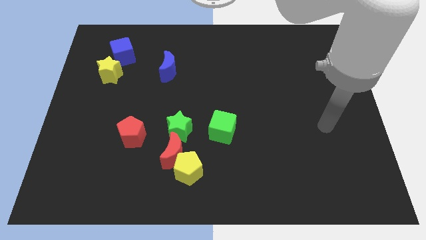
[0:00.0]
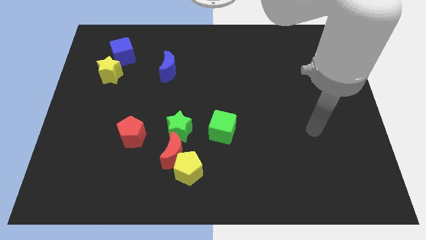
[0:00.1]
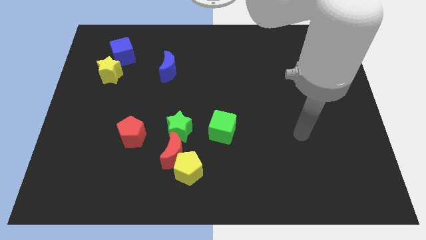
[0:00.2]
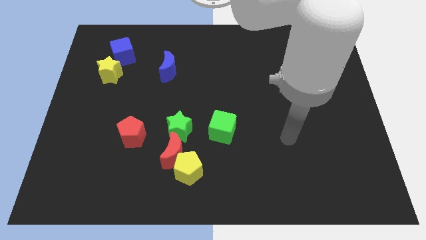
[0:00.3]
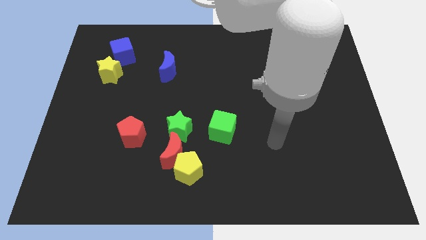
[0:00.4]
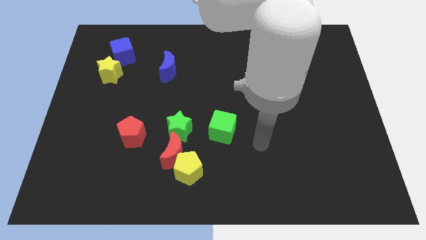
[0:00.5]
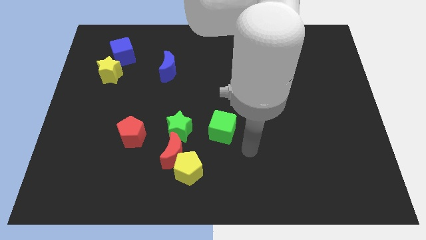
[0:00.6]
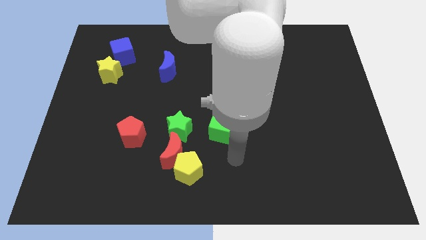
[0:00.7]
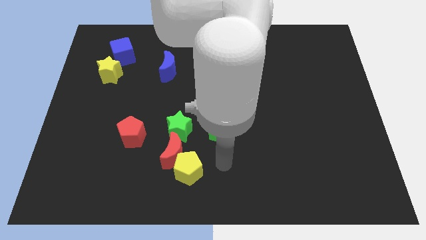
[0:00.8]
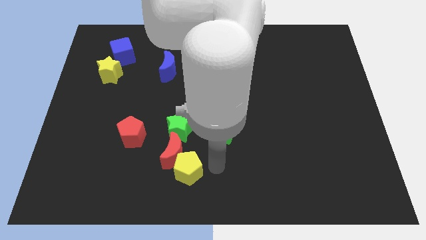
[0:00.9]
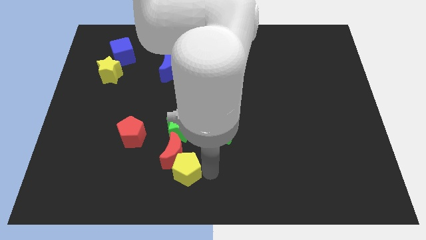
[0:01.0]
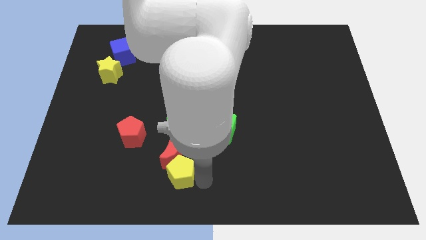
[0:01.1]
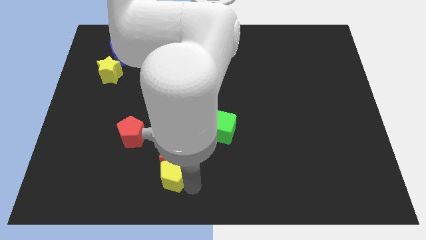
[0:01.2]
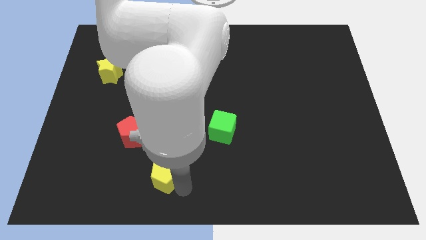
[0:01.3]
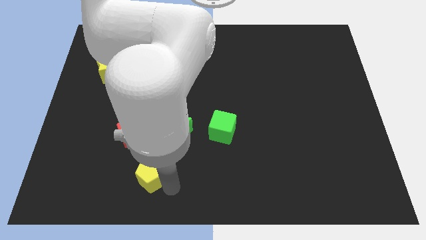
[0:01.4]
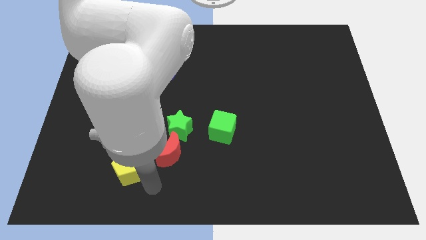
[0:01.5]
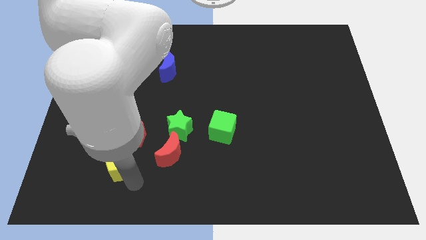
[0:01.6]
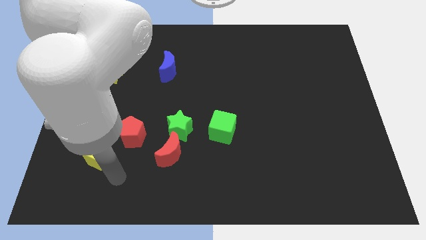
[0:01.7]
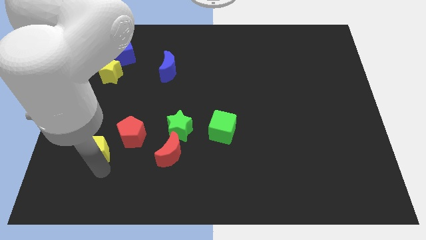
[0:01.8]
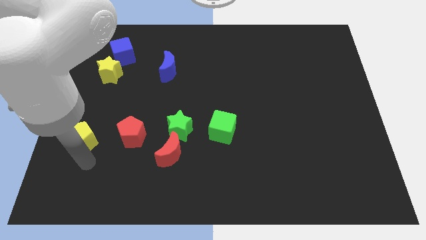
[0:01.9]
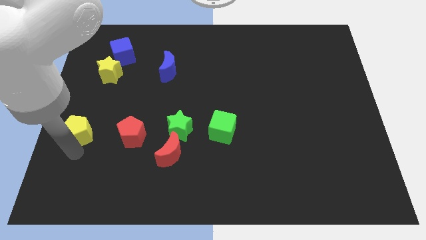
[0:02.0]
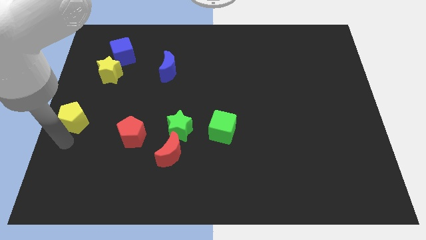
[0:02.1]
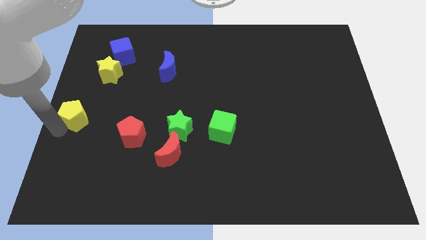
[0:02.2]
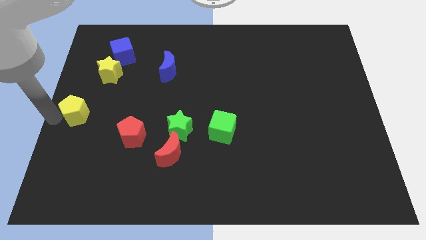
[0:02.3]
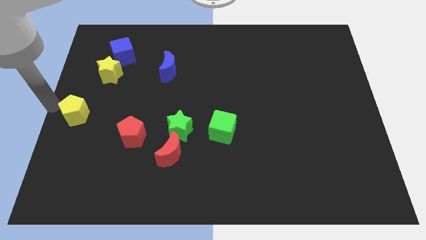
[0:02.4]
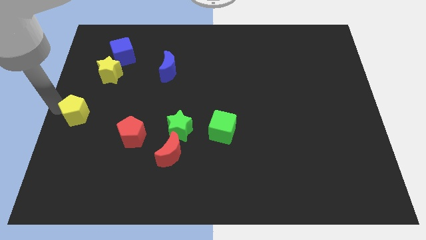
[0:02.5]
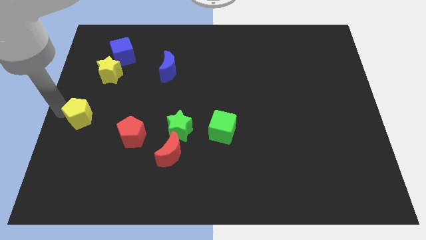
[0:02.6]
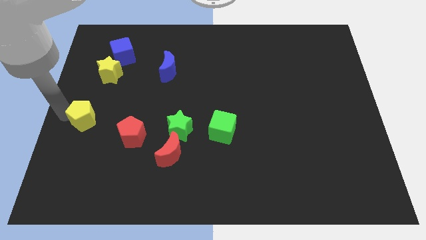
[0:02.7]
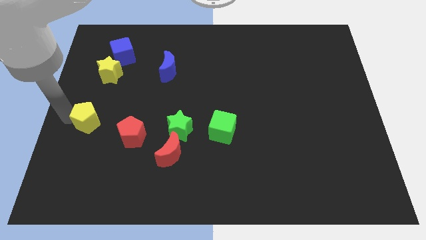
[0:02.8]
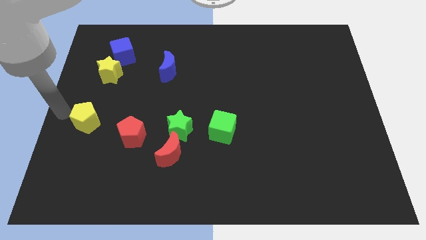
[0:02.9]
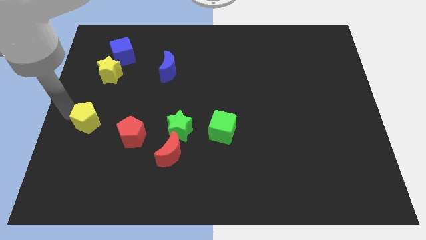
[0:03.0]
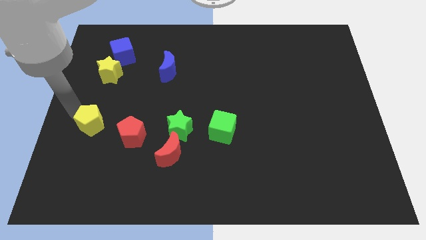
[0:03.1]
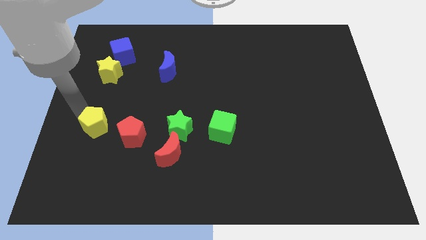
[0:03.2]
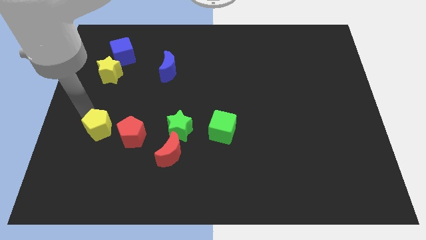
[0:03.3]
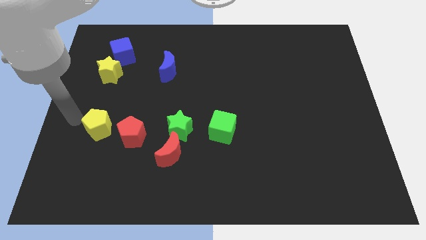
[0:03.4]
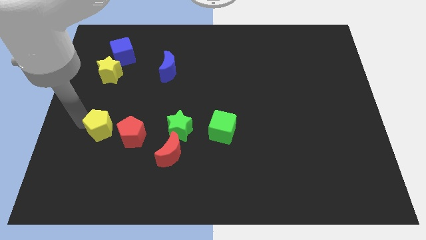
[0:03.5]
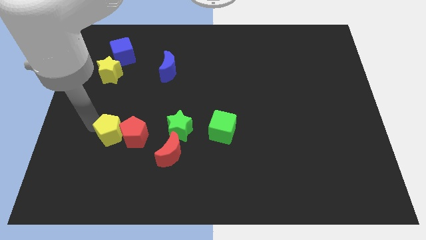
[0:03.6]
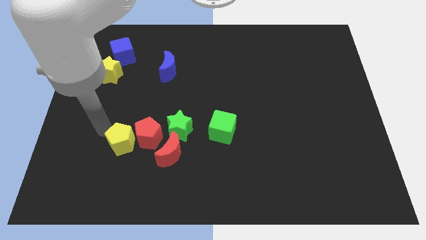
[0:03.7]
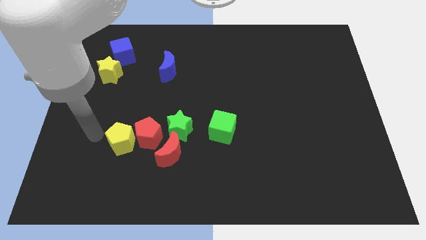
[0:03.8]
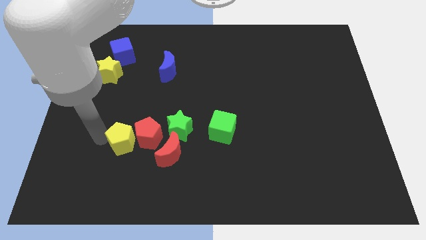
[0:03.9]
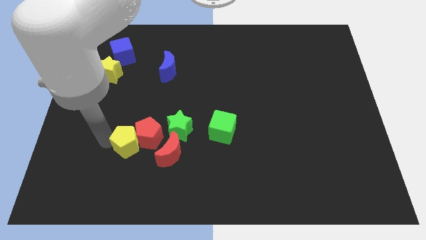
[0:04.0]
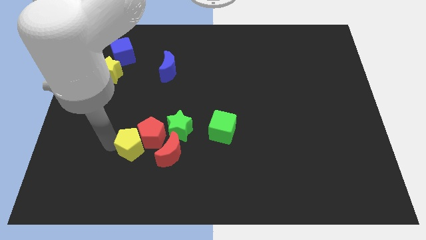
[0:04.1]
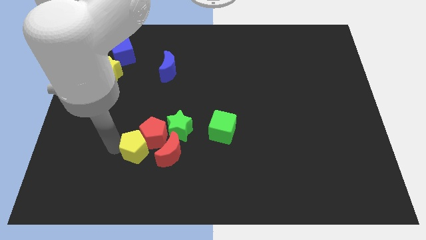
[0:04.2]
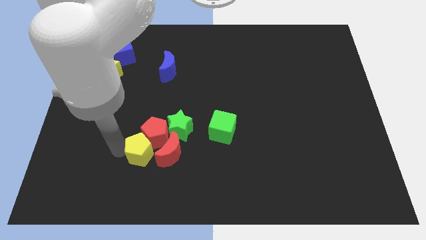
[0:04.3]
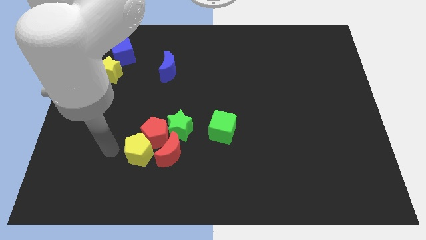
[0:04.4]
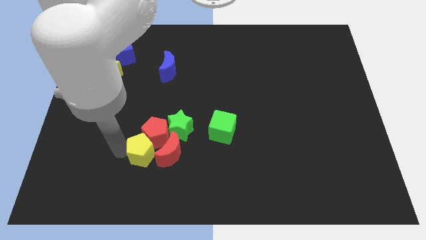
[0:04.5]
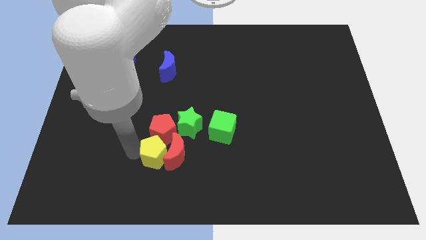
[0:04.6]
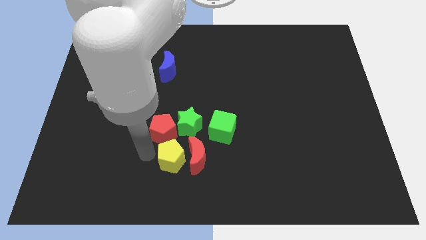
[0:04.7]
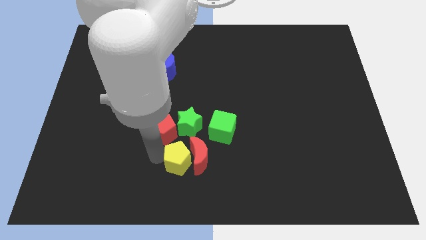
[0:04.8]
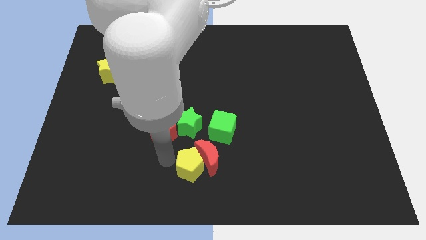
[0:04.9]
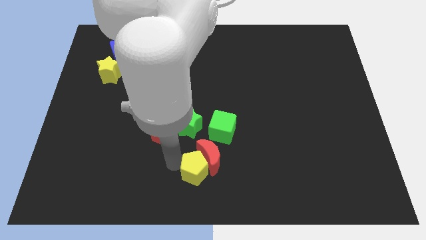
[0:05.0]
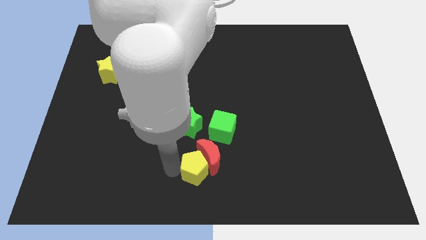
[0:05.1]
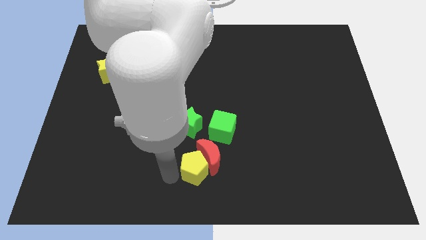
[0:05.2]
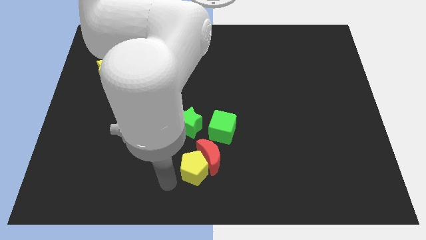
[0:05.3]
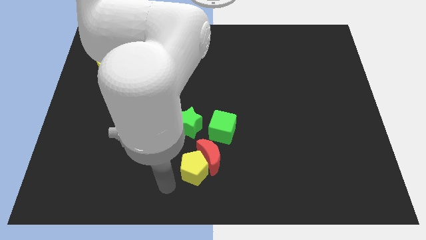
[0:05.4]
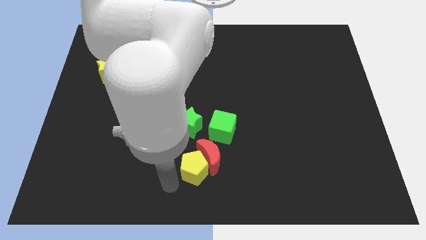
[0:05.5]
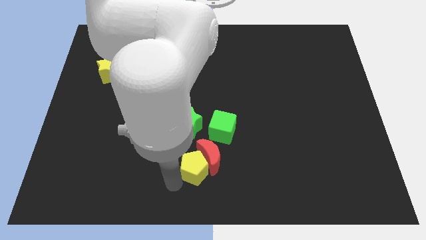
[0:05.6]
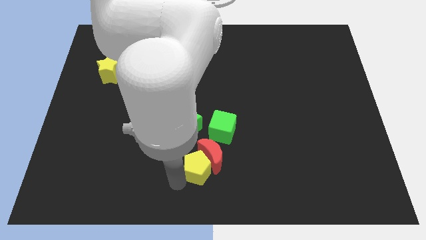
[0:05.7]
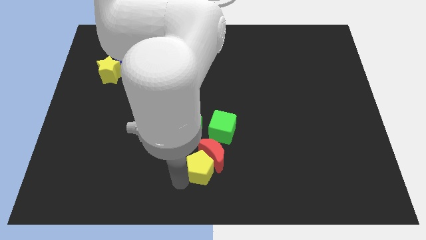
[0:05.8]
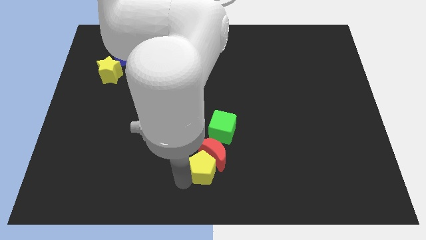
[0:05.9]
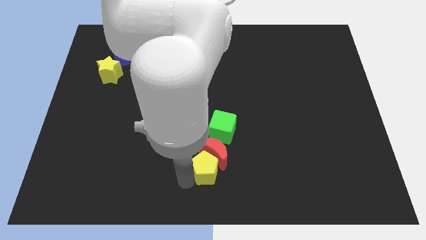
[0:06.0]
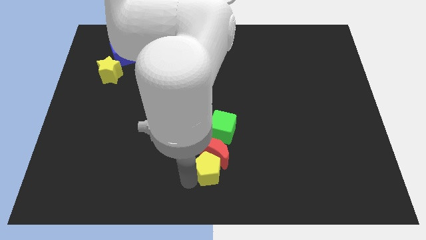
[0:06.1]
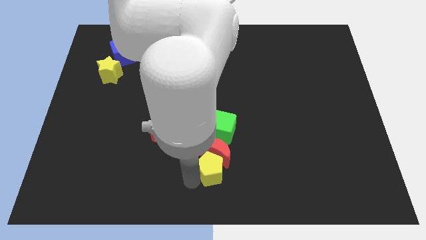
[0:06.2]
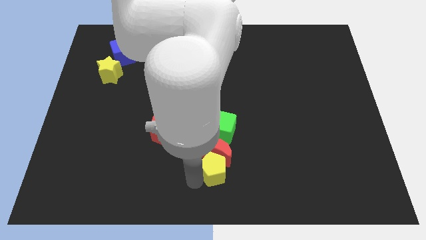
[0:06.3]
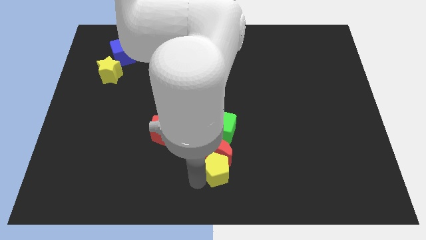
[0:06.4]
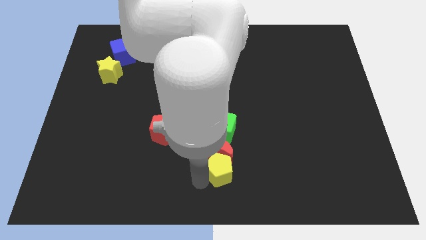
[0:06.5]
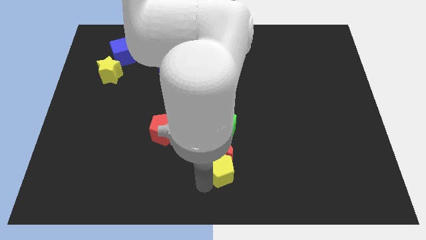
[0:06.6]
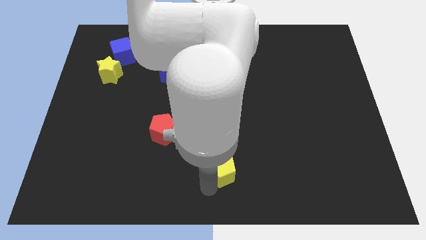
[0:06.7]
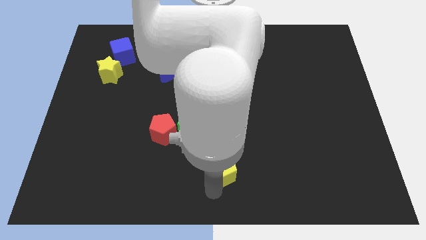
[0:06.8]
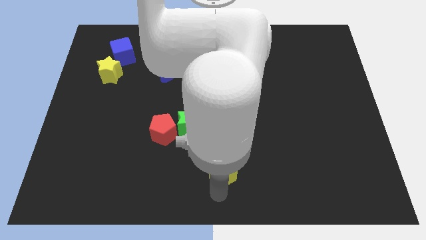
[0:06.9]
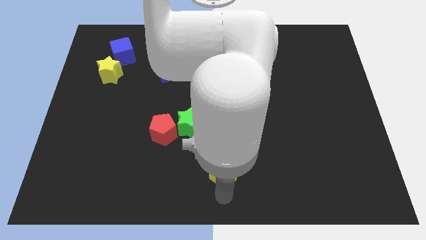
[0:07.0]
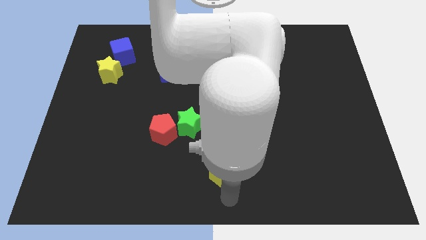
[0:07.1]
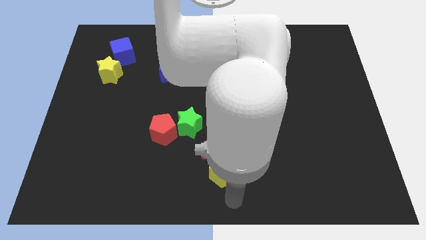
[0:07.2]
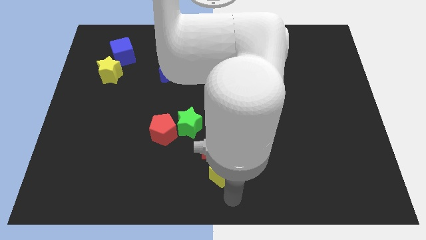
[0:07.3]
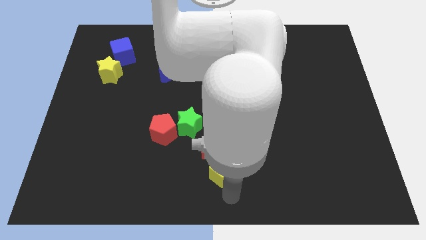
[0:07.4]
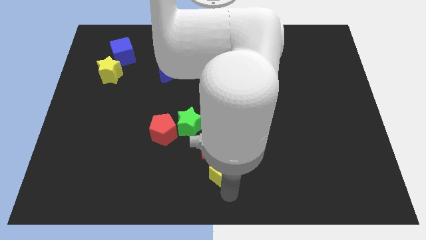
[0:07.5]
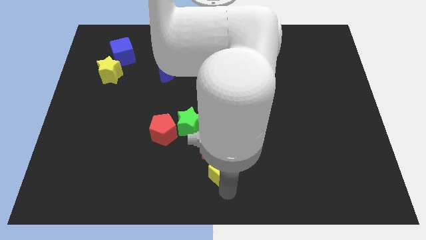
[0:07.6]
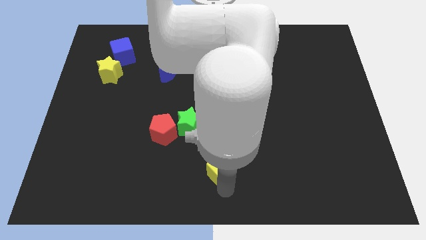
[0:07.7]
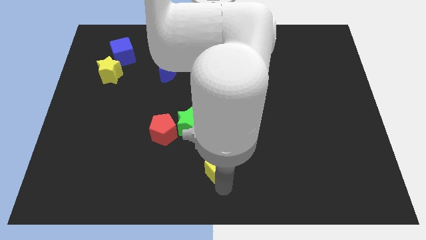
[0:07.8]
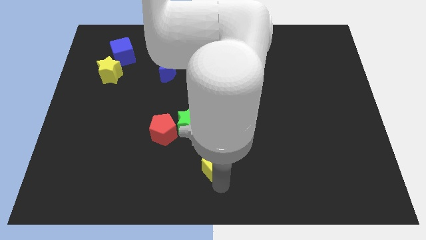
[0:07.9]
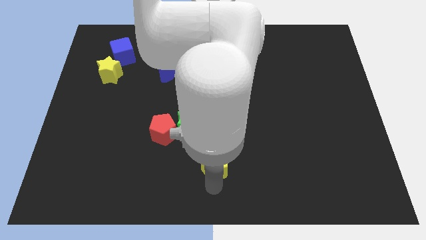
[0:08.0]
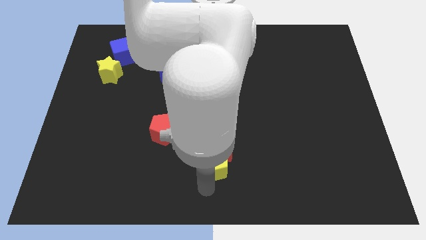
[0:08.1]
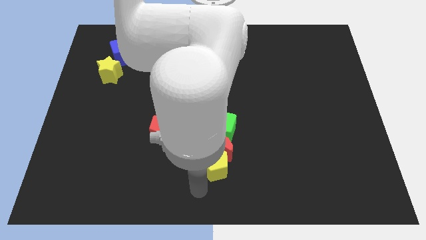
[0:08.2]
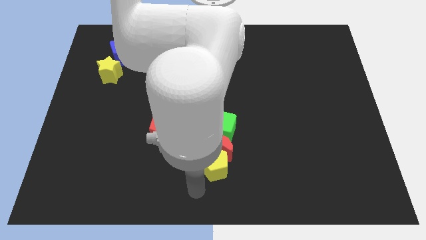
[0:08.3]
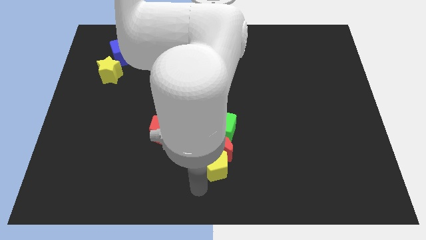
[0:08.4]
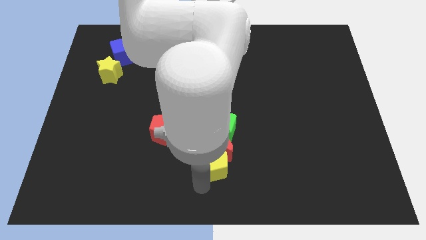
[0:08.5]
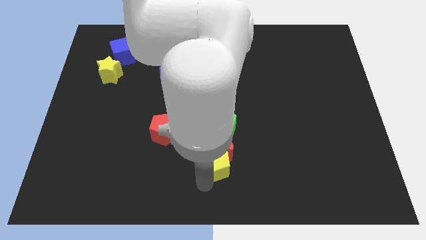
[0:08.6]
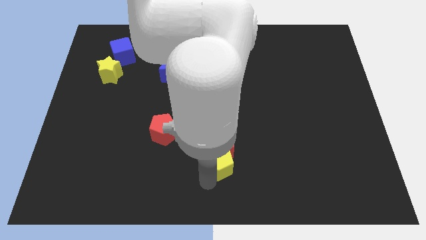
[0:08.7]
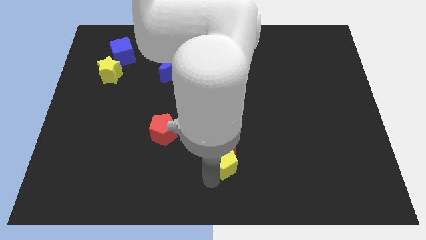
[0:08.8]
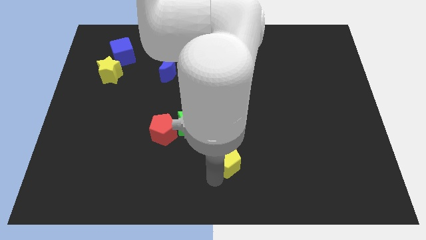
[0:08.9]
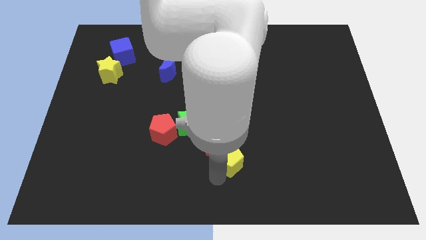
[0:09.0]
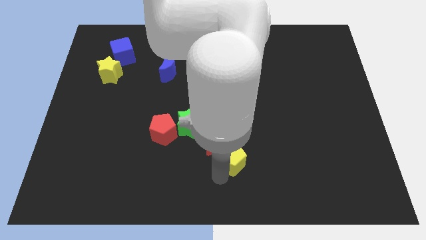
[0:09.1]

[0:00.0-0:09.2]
push the yellow pentagon up and to the right diagonally a little
